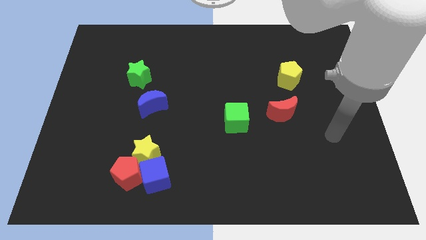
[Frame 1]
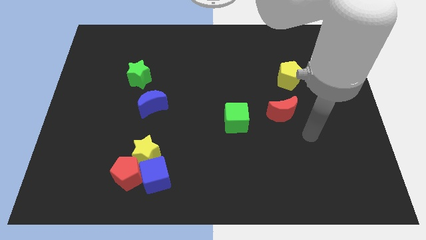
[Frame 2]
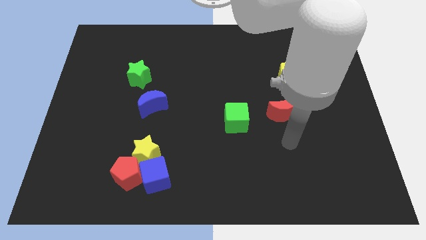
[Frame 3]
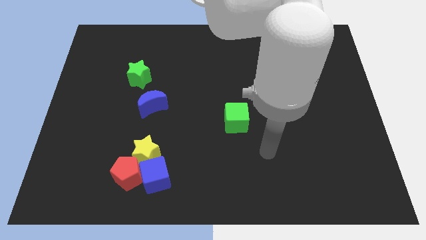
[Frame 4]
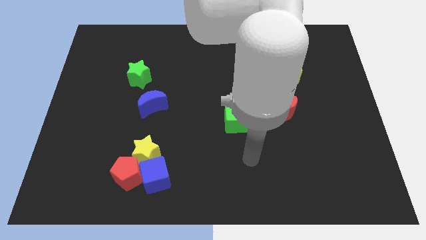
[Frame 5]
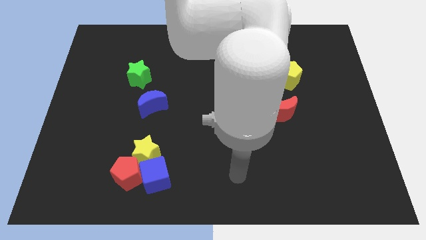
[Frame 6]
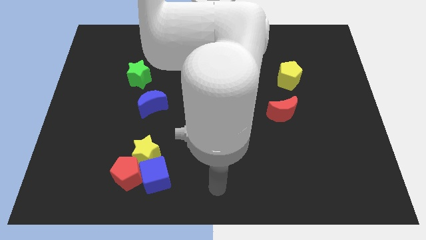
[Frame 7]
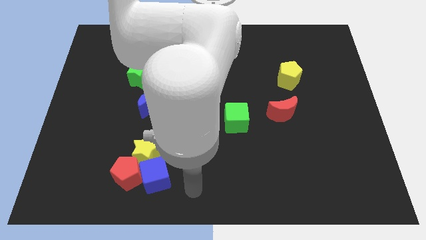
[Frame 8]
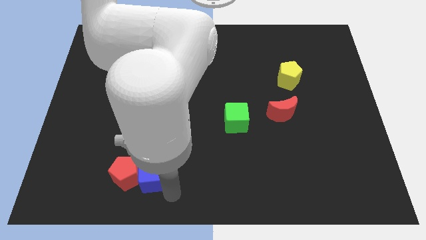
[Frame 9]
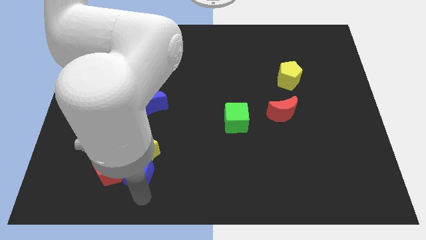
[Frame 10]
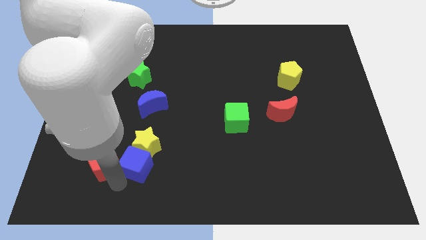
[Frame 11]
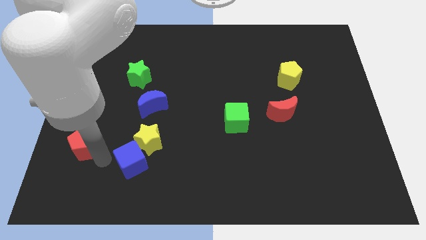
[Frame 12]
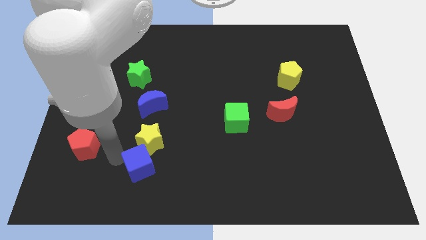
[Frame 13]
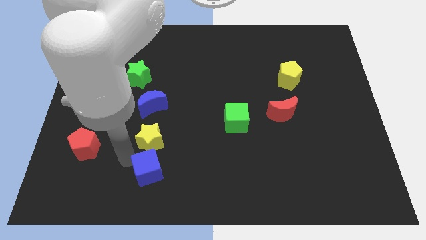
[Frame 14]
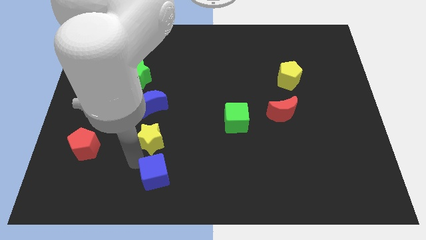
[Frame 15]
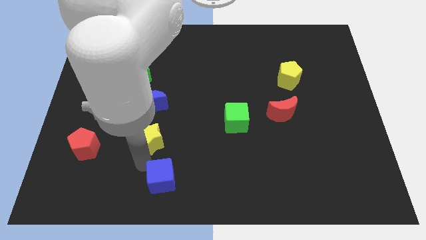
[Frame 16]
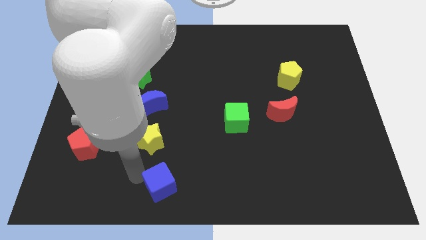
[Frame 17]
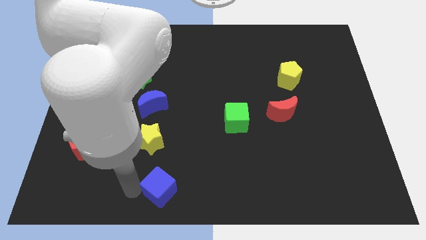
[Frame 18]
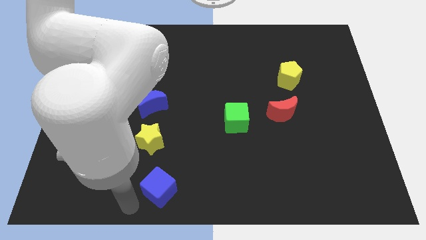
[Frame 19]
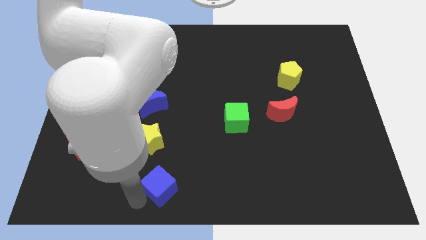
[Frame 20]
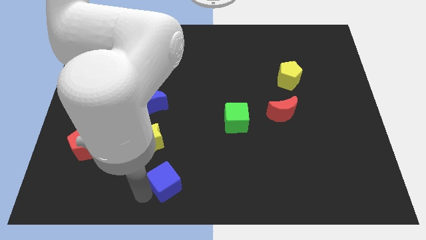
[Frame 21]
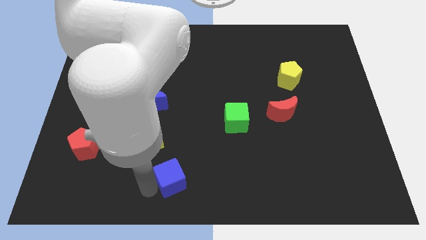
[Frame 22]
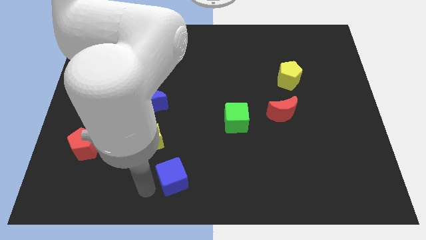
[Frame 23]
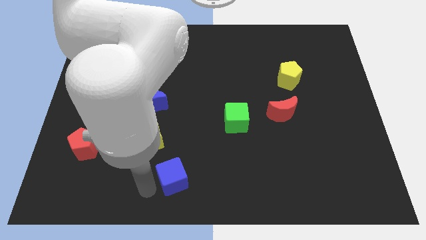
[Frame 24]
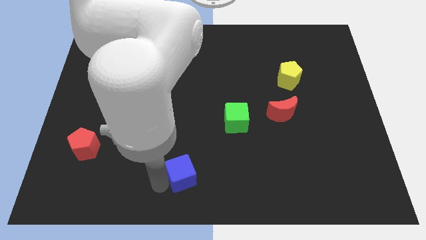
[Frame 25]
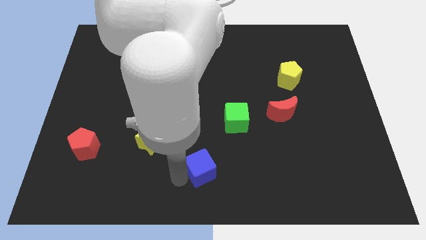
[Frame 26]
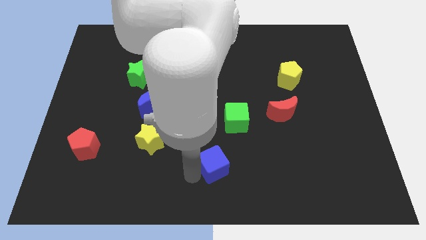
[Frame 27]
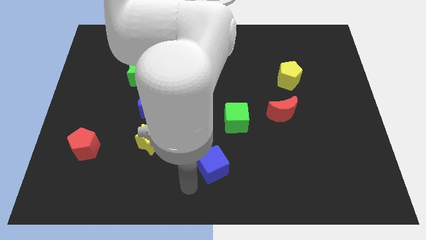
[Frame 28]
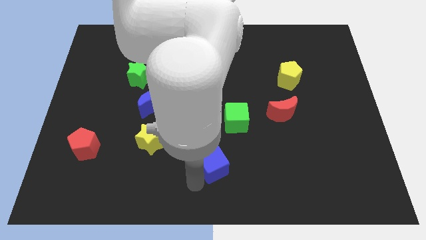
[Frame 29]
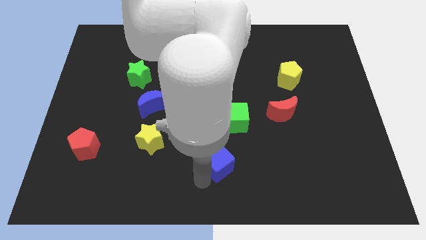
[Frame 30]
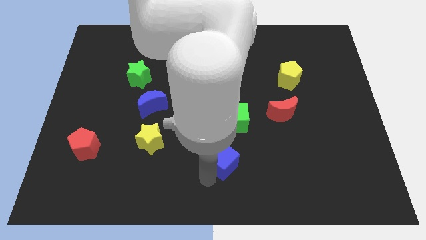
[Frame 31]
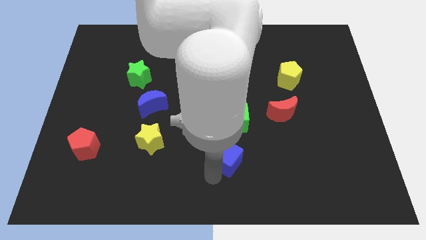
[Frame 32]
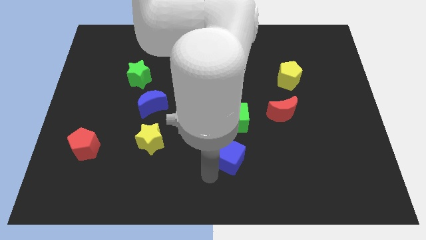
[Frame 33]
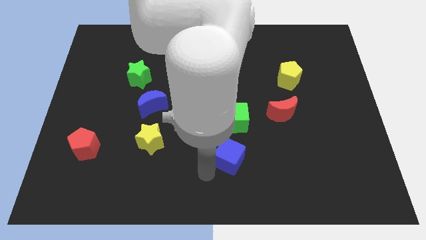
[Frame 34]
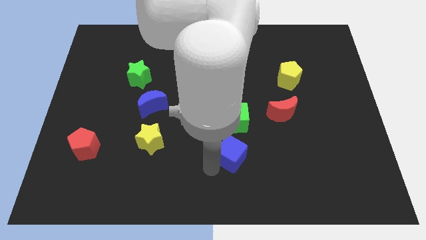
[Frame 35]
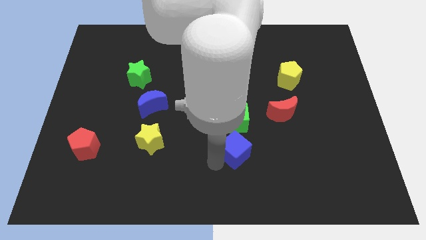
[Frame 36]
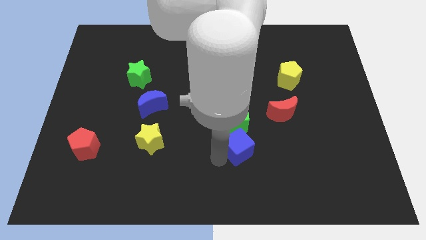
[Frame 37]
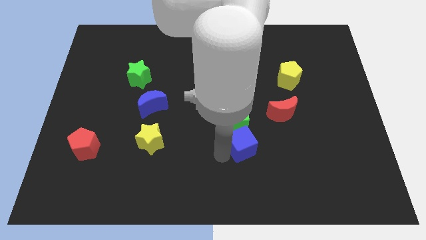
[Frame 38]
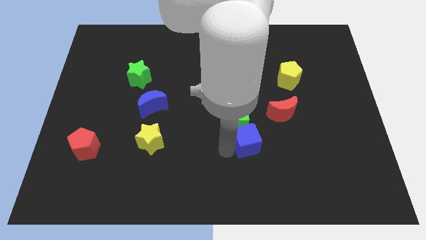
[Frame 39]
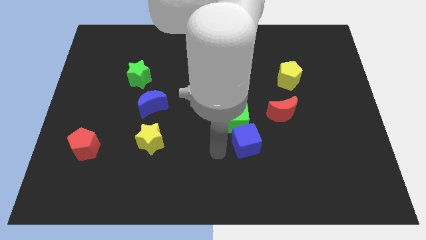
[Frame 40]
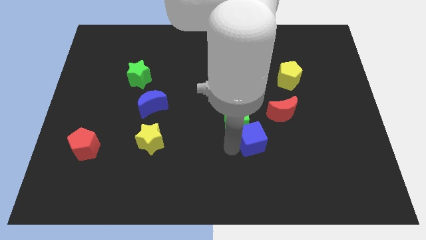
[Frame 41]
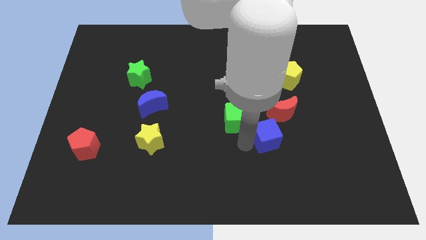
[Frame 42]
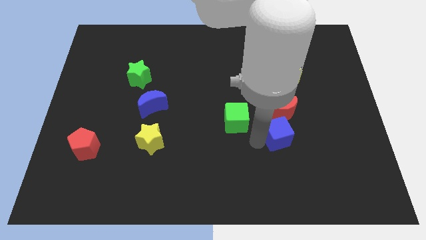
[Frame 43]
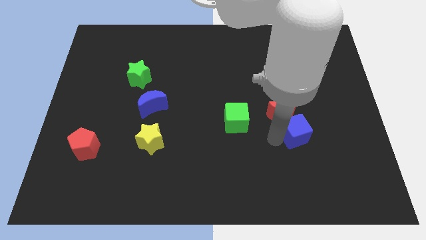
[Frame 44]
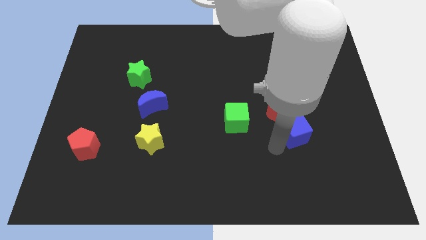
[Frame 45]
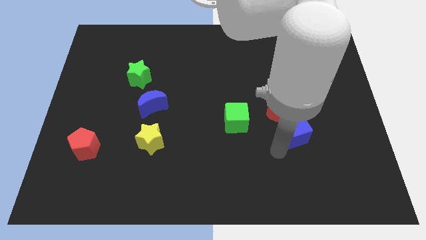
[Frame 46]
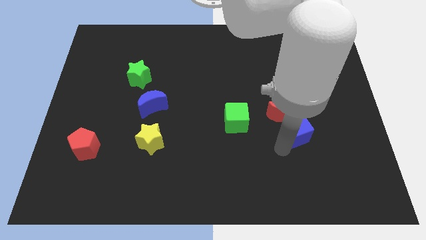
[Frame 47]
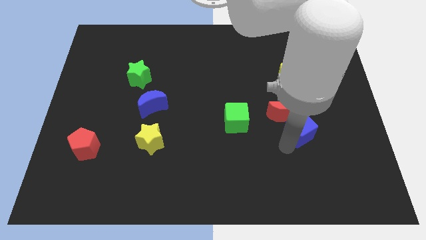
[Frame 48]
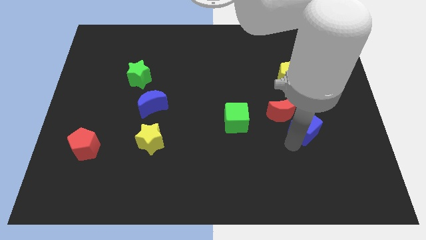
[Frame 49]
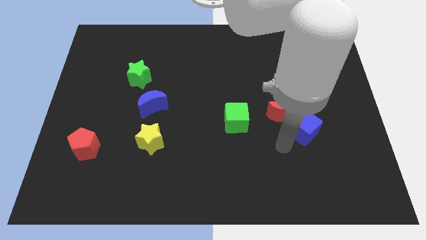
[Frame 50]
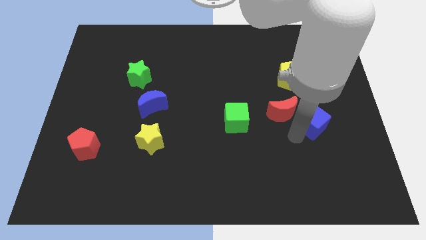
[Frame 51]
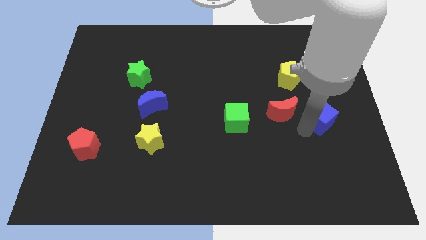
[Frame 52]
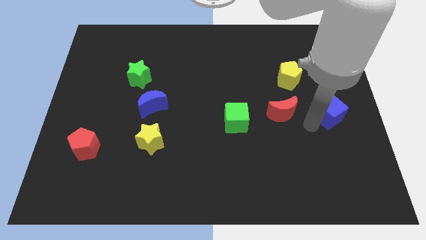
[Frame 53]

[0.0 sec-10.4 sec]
move the blue cube to the right side of the board

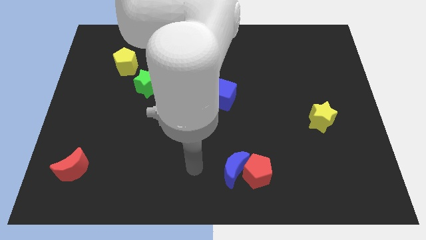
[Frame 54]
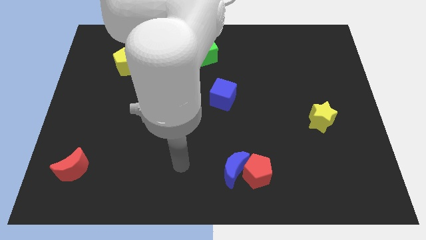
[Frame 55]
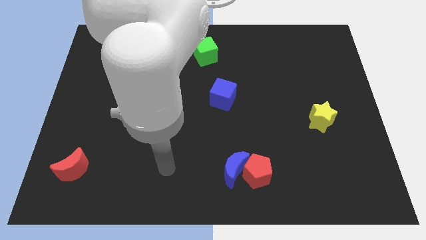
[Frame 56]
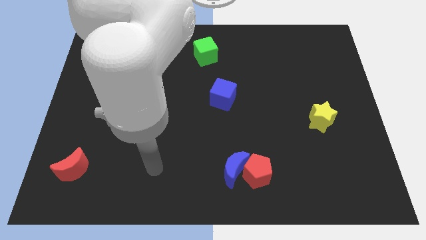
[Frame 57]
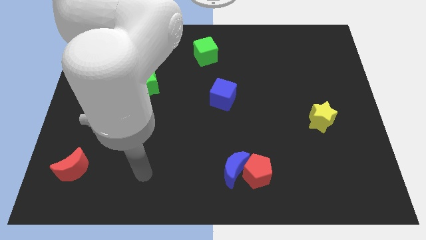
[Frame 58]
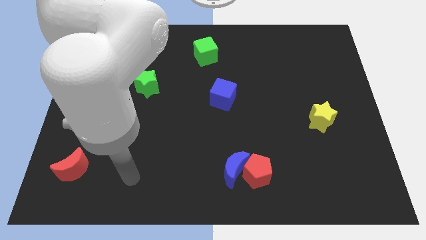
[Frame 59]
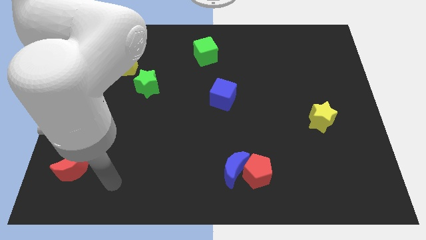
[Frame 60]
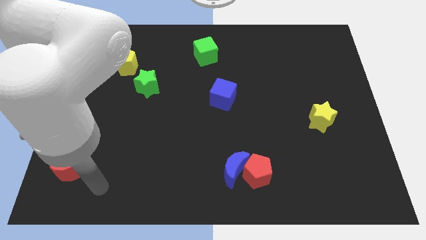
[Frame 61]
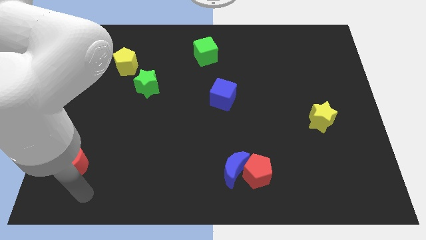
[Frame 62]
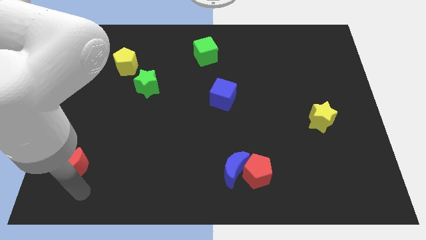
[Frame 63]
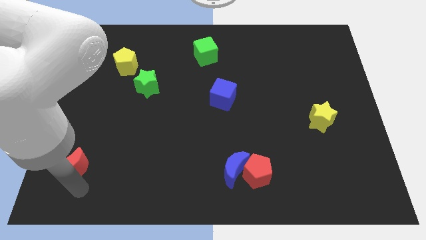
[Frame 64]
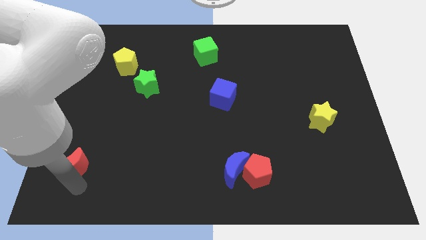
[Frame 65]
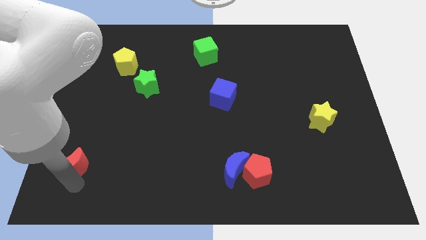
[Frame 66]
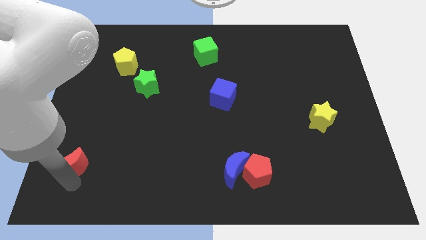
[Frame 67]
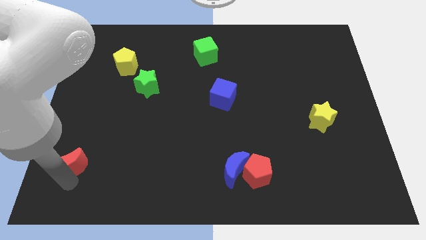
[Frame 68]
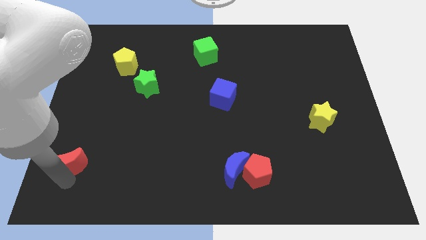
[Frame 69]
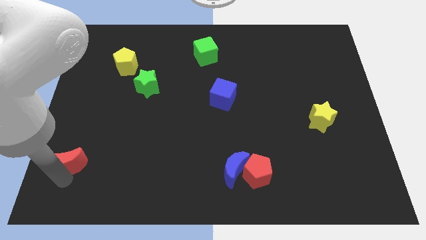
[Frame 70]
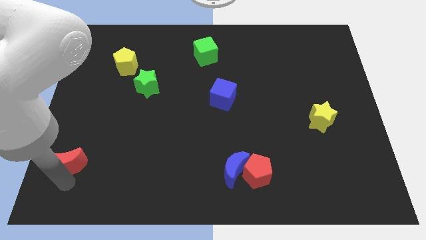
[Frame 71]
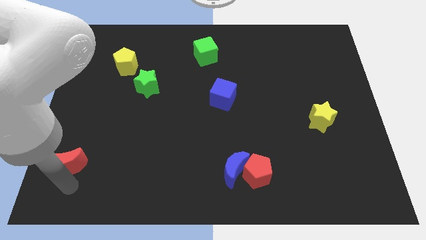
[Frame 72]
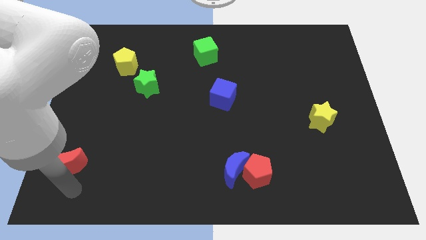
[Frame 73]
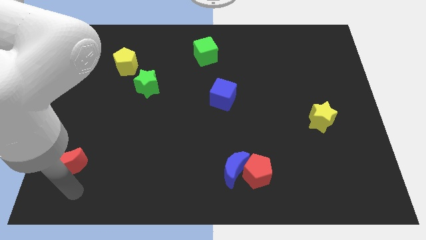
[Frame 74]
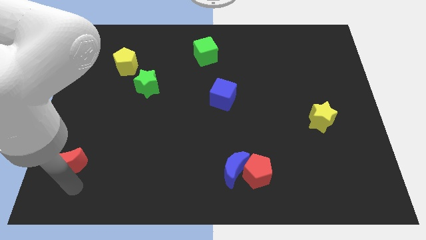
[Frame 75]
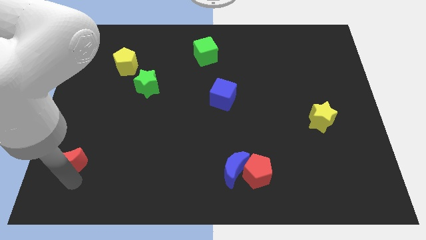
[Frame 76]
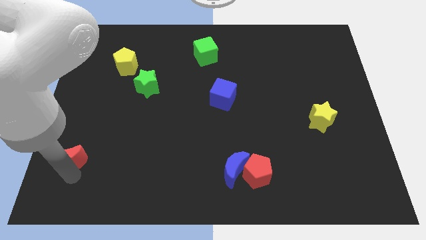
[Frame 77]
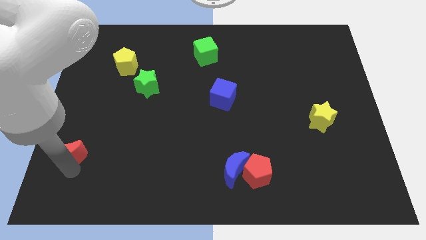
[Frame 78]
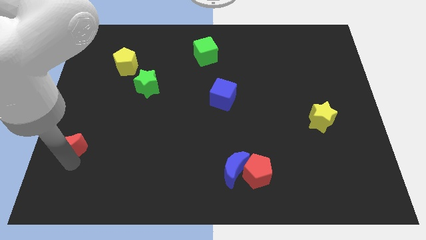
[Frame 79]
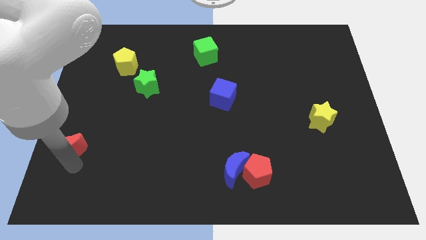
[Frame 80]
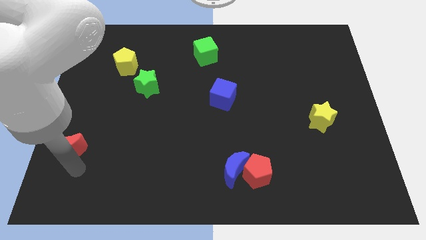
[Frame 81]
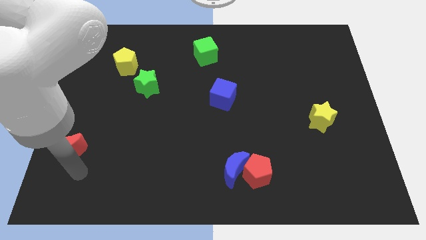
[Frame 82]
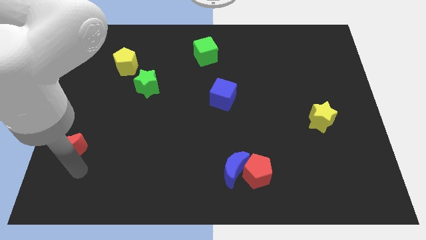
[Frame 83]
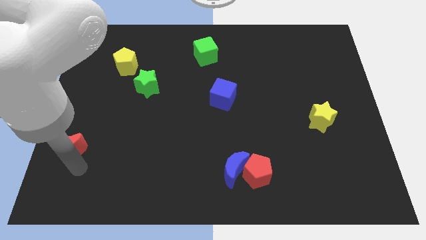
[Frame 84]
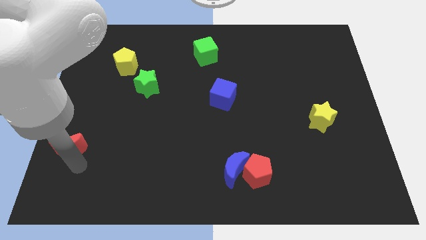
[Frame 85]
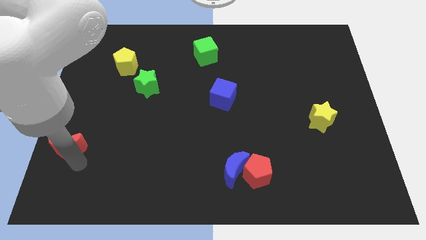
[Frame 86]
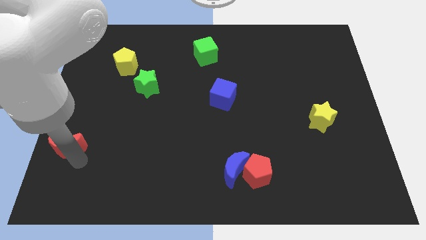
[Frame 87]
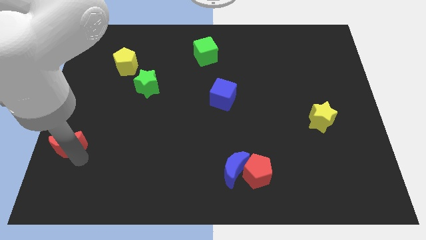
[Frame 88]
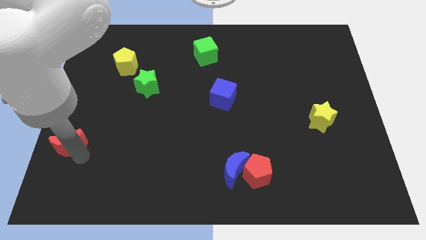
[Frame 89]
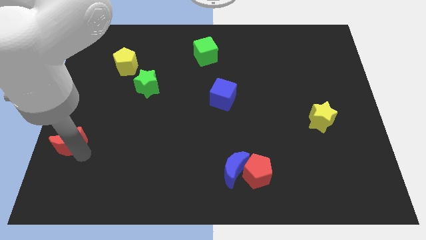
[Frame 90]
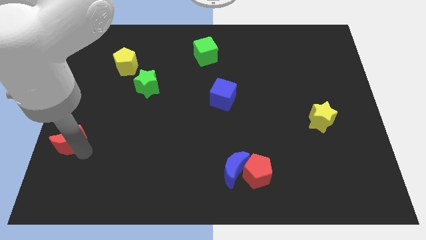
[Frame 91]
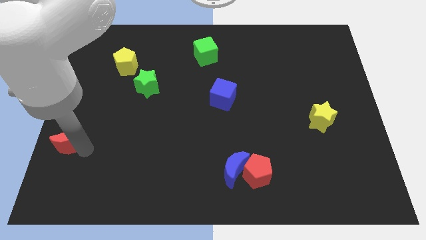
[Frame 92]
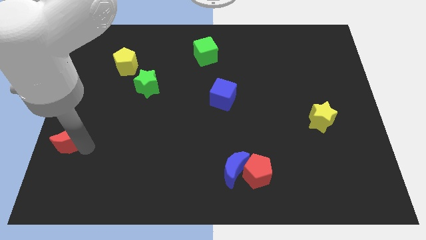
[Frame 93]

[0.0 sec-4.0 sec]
put the red moon to the left side
